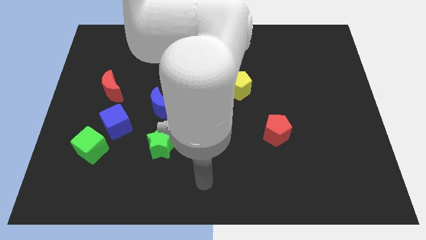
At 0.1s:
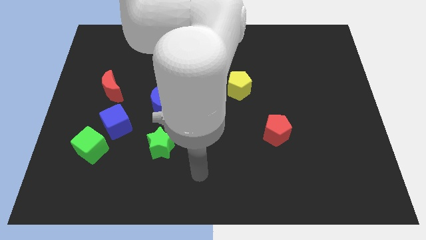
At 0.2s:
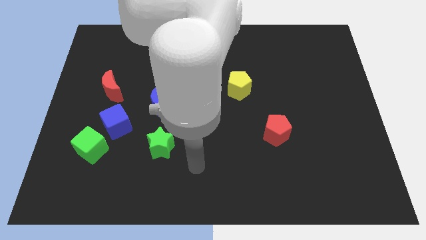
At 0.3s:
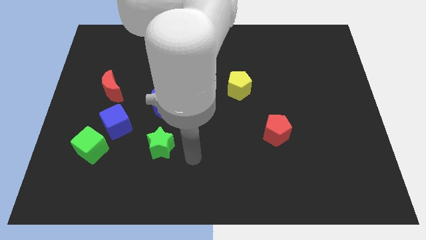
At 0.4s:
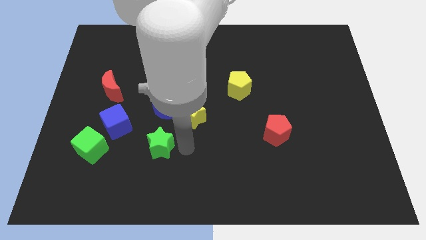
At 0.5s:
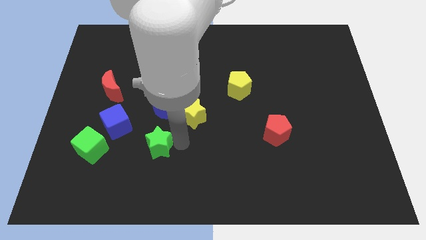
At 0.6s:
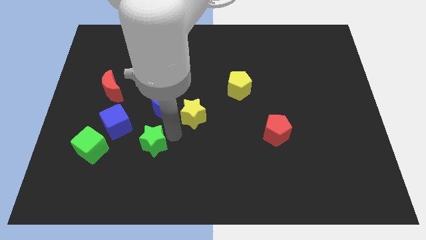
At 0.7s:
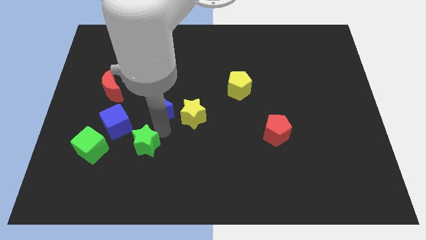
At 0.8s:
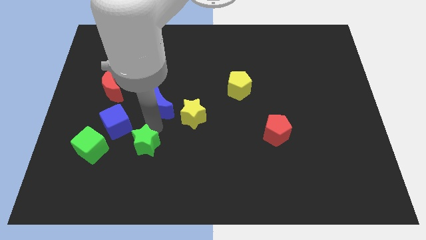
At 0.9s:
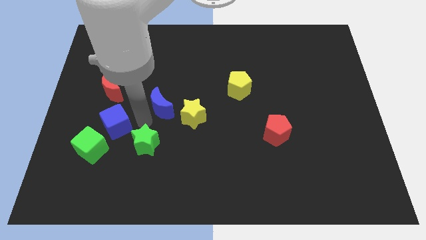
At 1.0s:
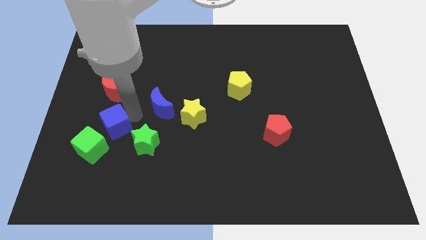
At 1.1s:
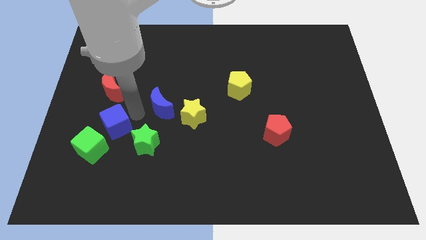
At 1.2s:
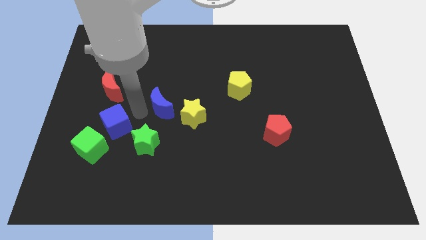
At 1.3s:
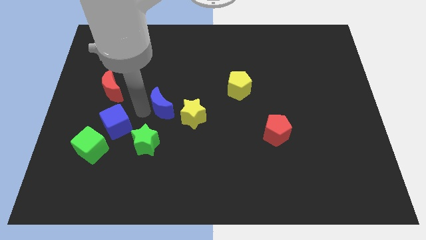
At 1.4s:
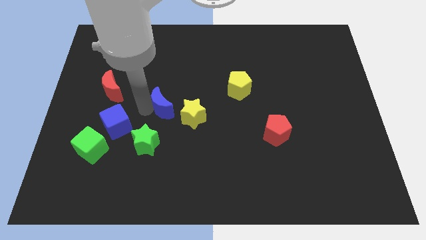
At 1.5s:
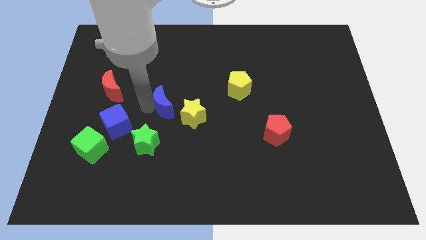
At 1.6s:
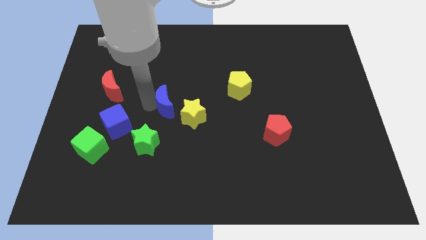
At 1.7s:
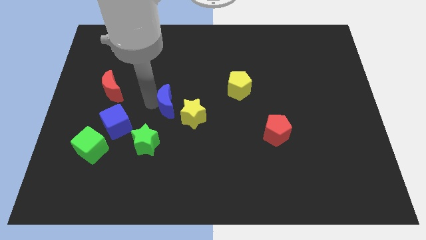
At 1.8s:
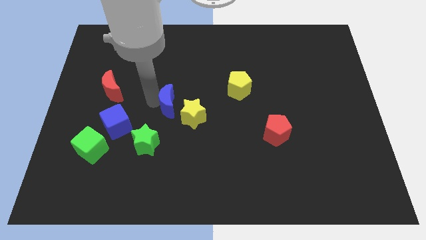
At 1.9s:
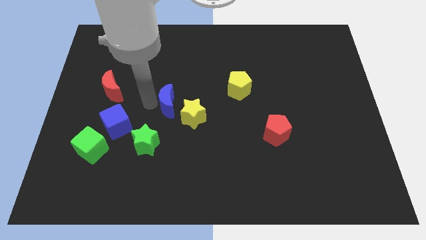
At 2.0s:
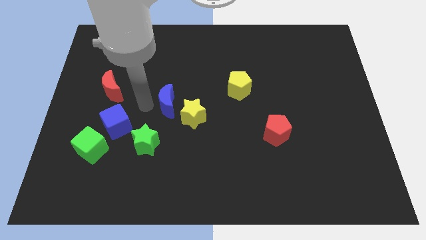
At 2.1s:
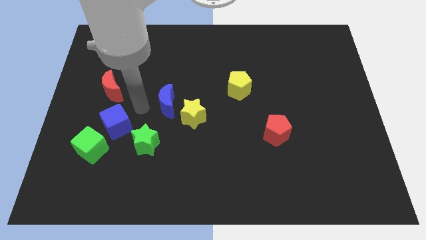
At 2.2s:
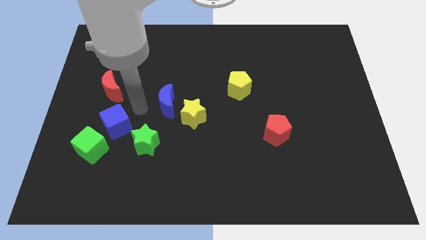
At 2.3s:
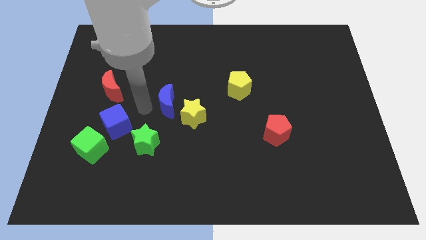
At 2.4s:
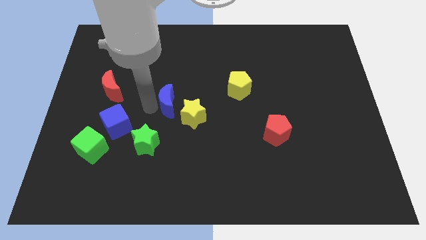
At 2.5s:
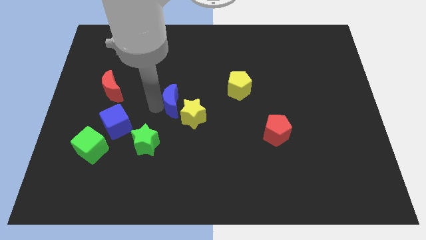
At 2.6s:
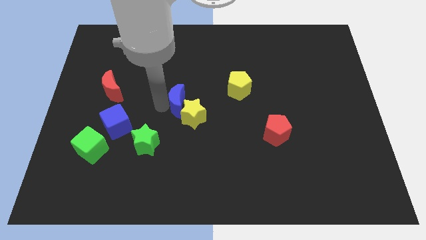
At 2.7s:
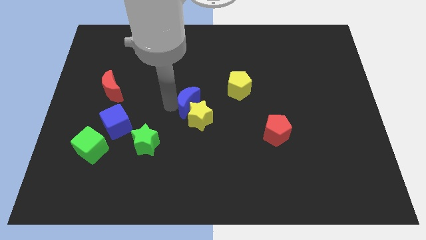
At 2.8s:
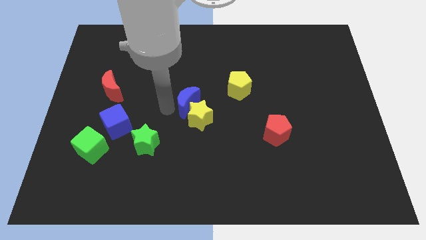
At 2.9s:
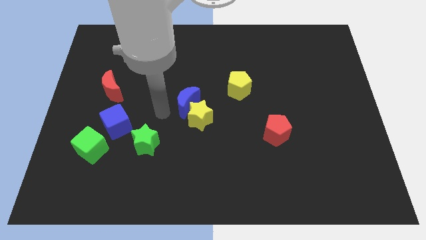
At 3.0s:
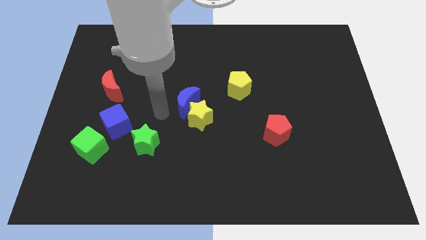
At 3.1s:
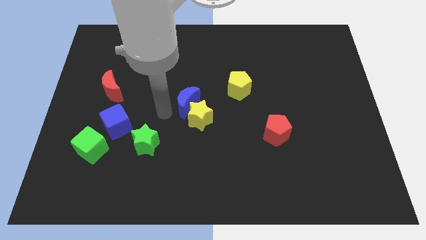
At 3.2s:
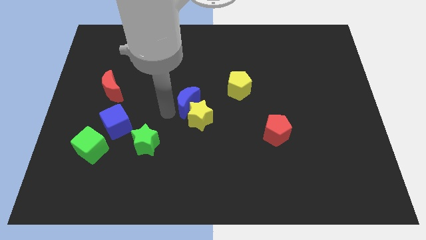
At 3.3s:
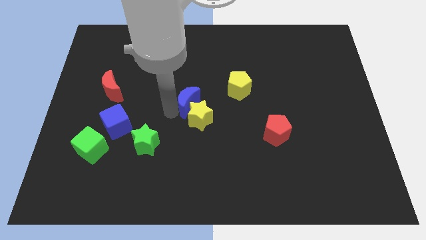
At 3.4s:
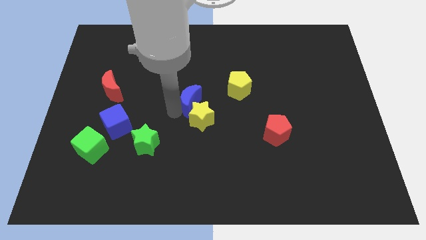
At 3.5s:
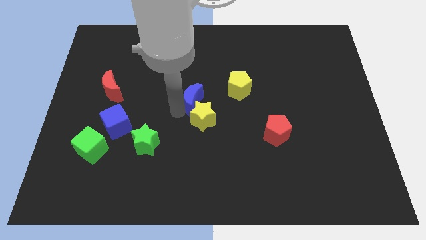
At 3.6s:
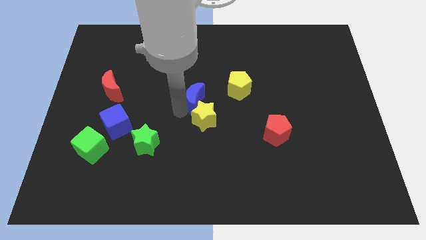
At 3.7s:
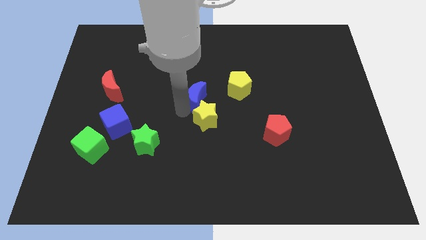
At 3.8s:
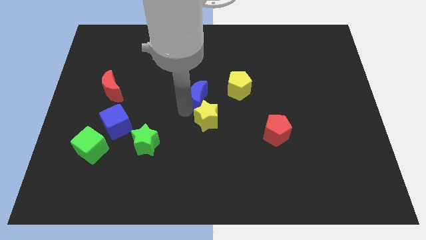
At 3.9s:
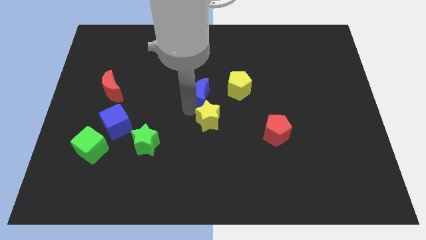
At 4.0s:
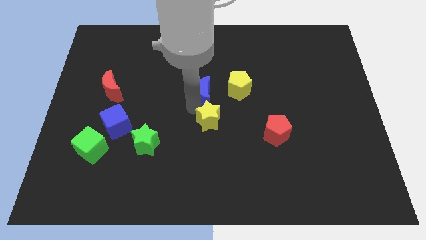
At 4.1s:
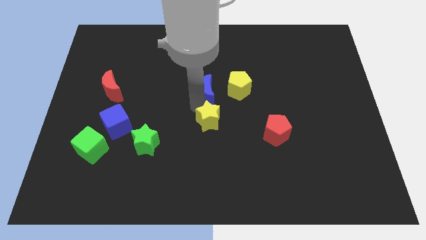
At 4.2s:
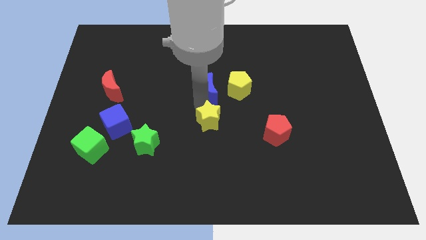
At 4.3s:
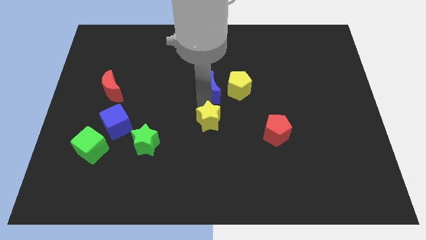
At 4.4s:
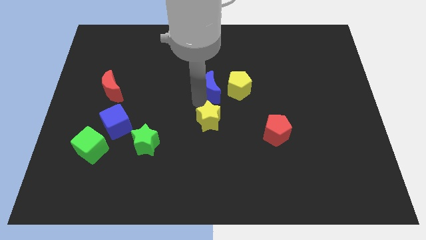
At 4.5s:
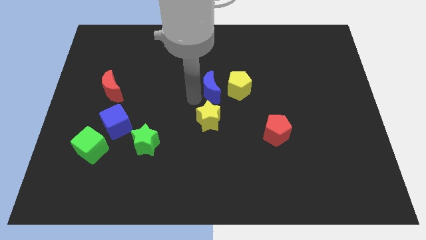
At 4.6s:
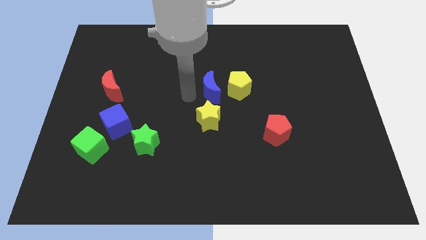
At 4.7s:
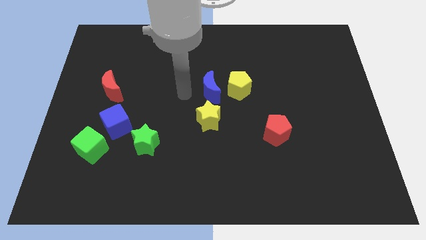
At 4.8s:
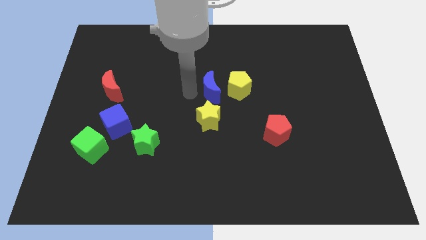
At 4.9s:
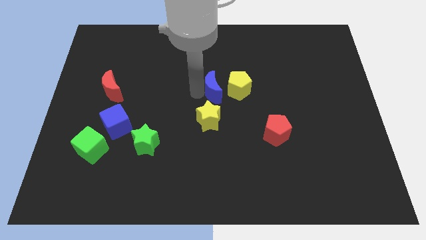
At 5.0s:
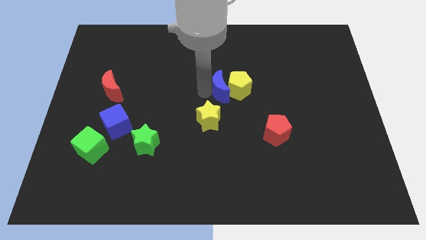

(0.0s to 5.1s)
move the blue moon close to the yellow pentagon

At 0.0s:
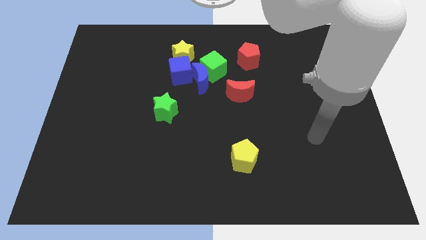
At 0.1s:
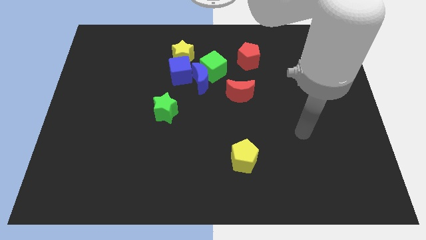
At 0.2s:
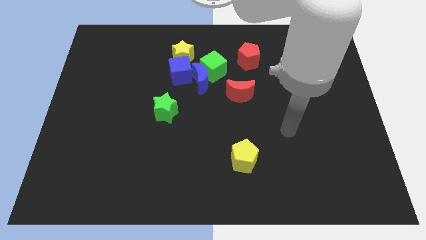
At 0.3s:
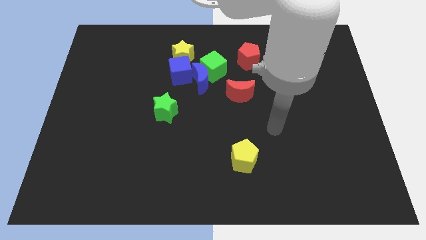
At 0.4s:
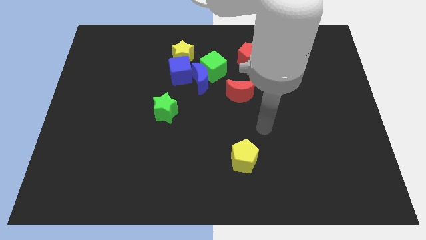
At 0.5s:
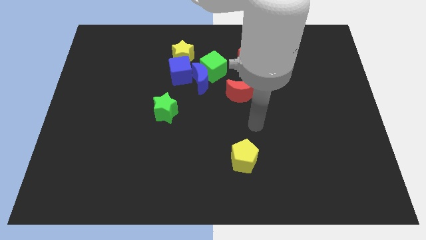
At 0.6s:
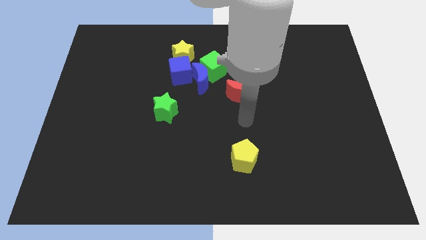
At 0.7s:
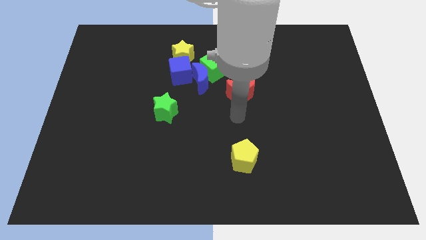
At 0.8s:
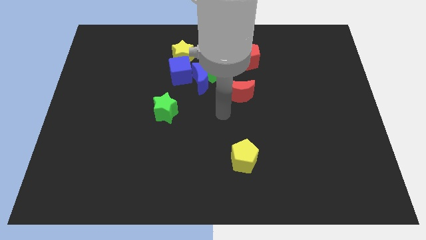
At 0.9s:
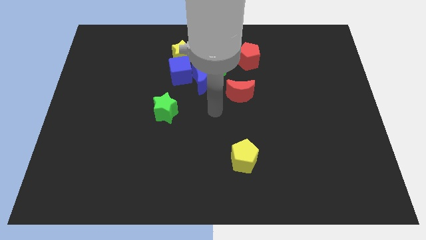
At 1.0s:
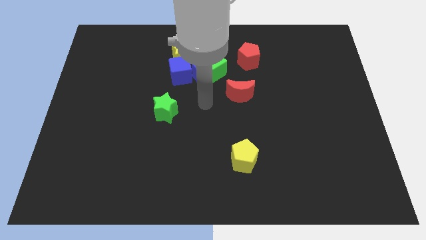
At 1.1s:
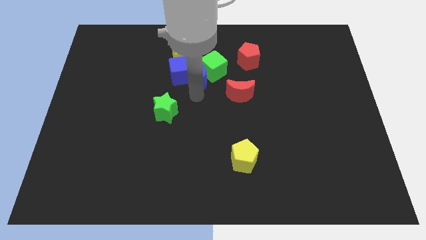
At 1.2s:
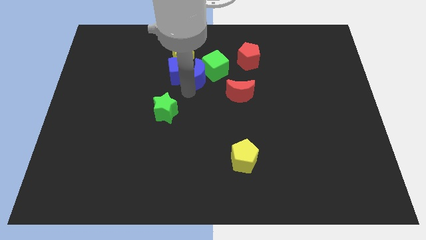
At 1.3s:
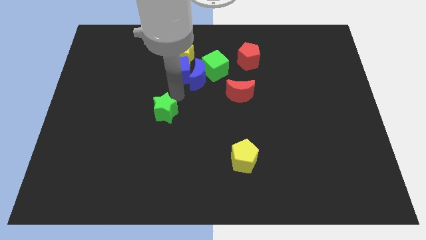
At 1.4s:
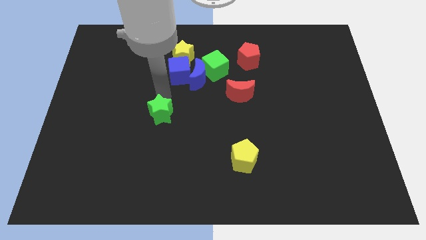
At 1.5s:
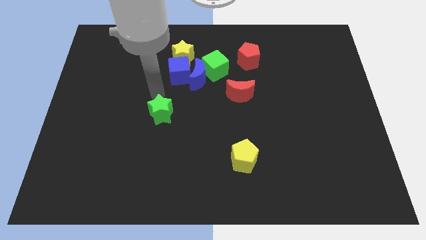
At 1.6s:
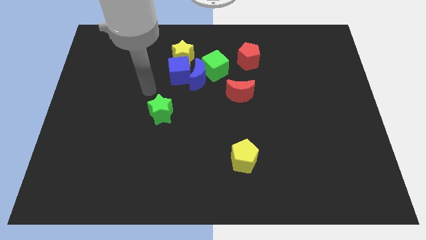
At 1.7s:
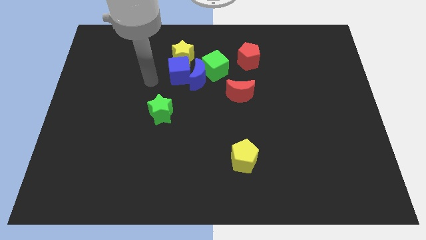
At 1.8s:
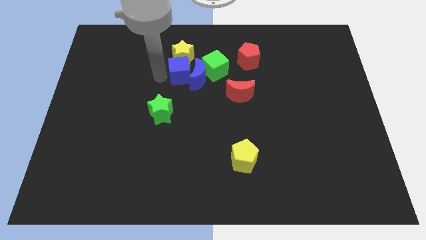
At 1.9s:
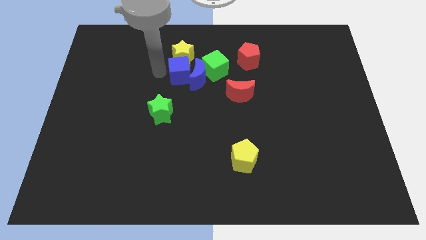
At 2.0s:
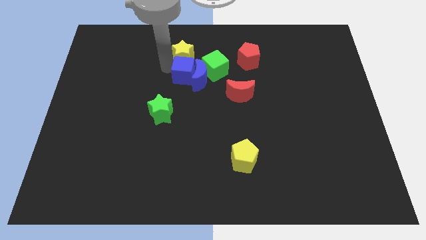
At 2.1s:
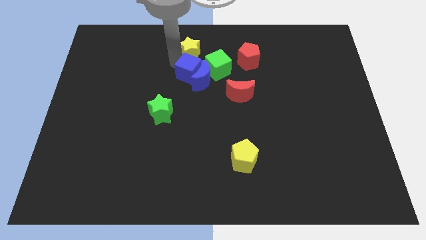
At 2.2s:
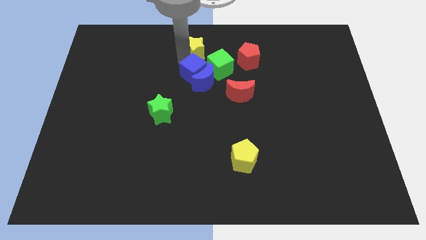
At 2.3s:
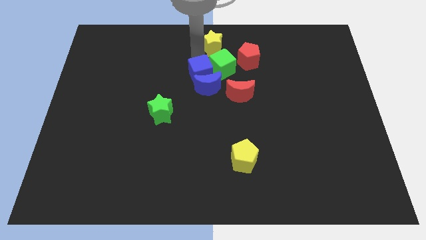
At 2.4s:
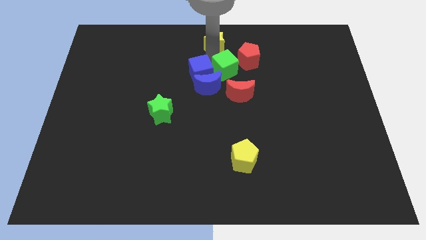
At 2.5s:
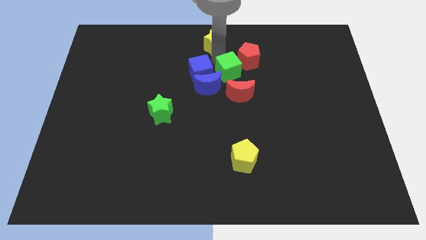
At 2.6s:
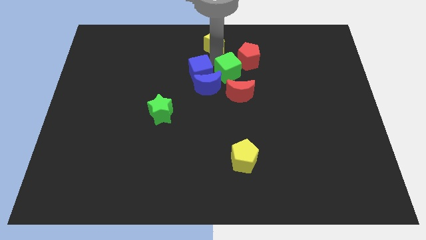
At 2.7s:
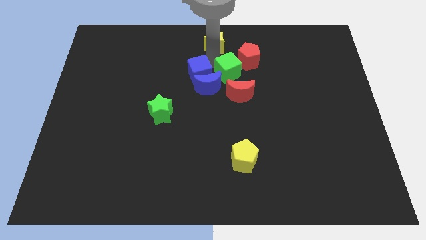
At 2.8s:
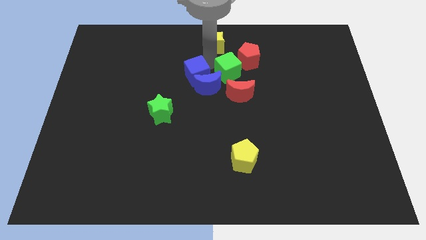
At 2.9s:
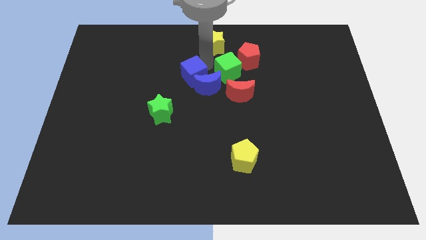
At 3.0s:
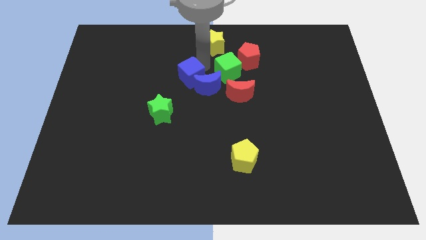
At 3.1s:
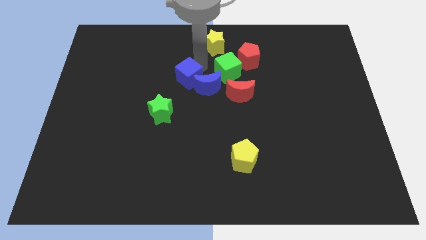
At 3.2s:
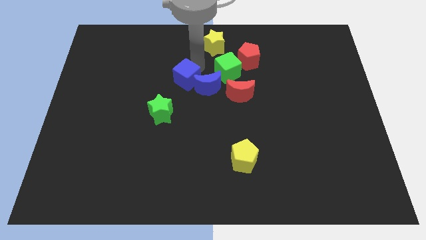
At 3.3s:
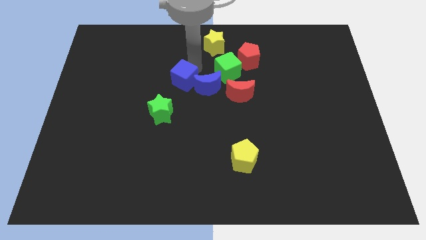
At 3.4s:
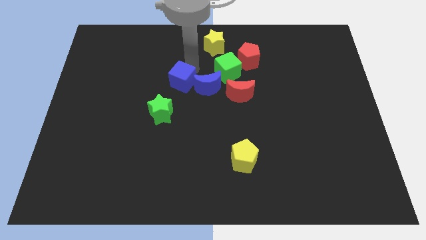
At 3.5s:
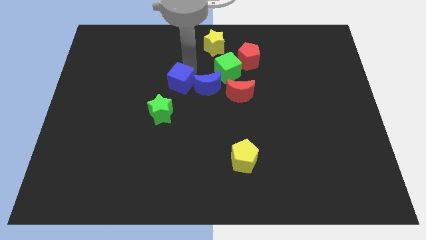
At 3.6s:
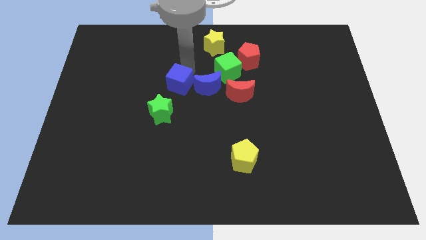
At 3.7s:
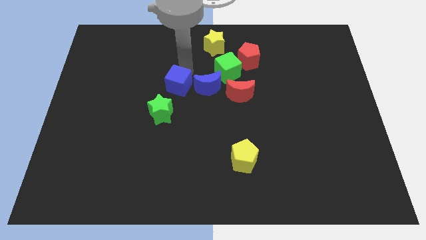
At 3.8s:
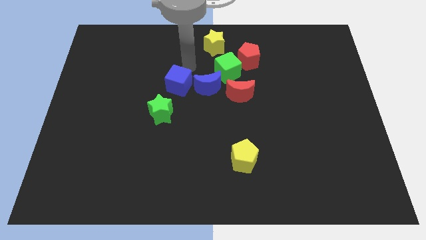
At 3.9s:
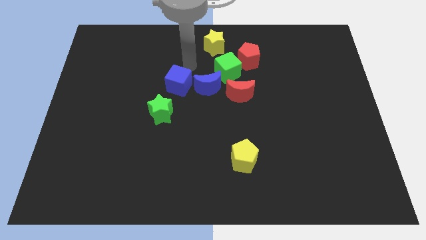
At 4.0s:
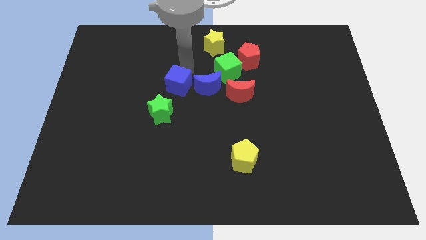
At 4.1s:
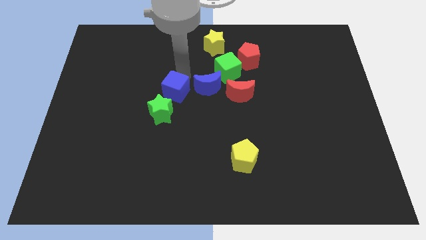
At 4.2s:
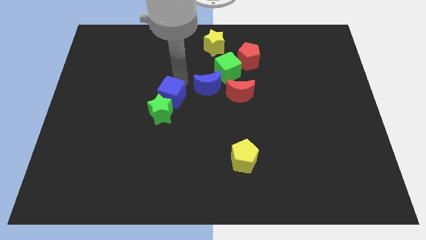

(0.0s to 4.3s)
put the blue cube close to the green star
